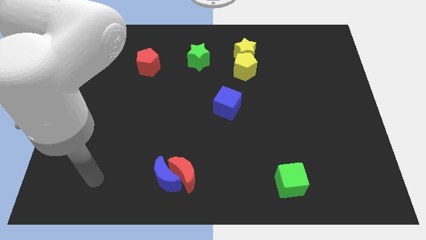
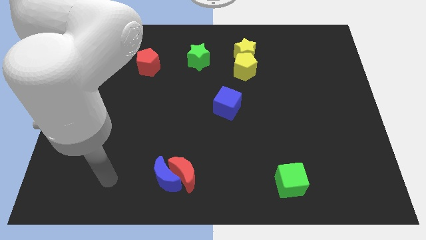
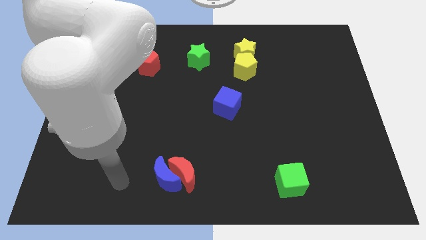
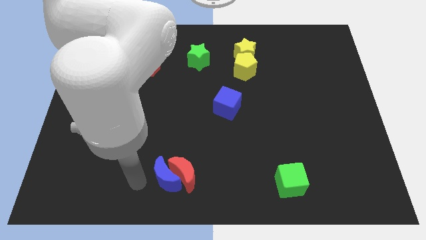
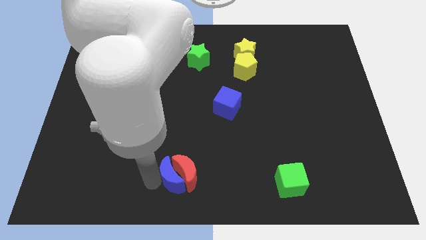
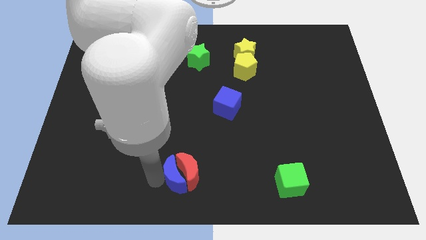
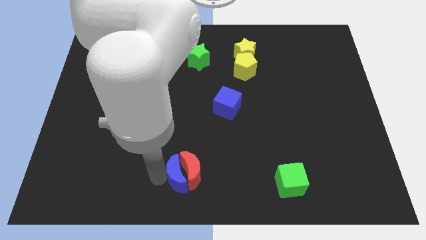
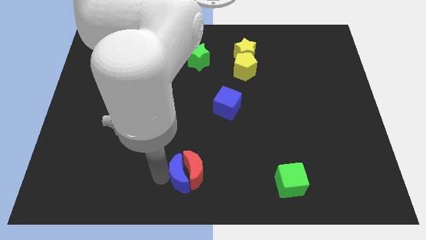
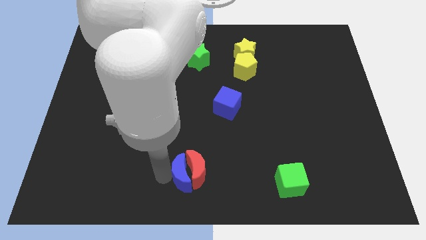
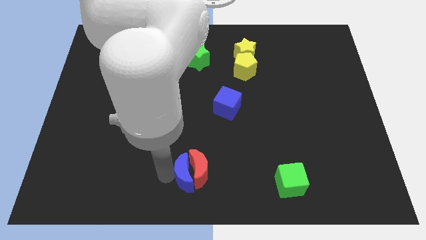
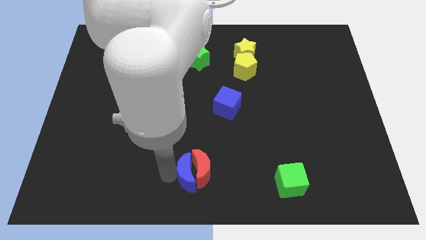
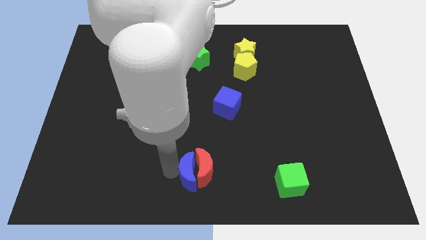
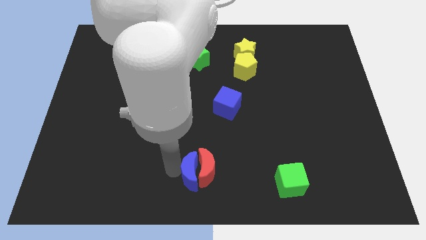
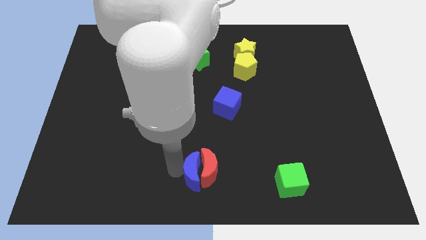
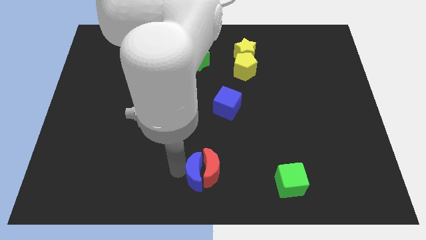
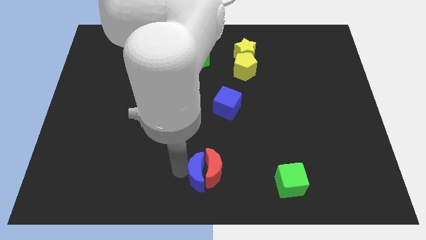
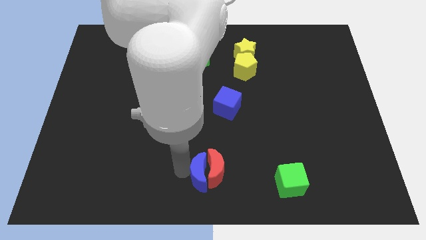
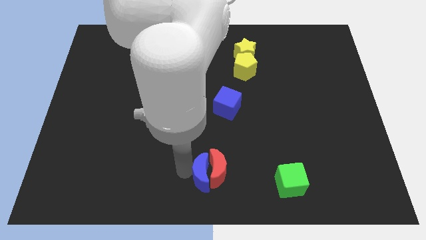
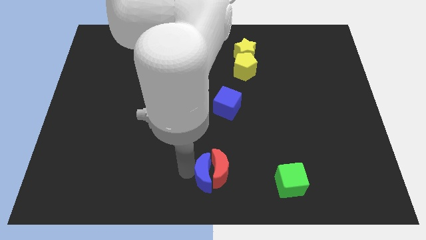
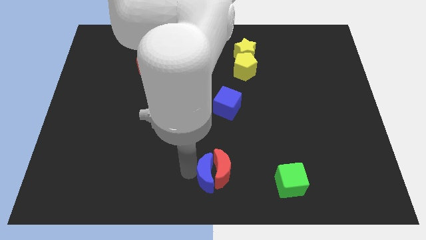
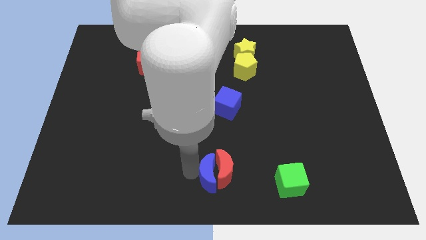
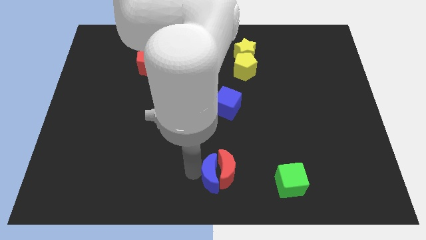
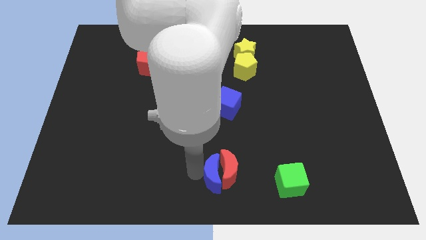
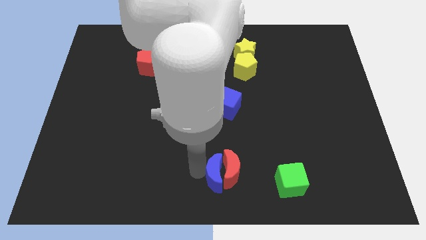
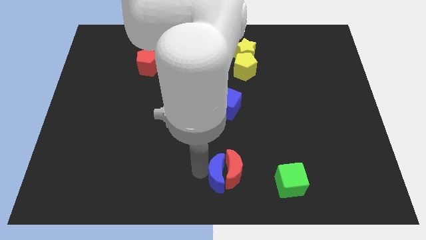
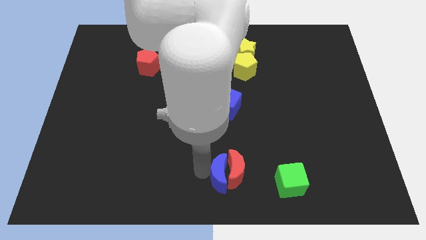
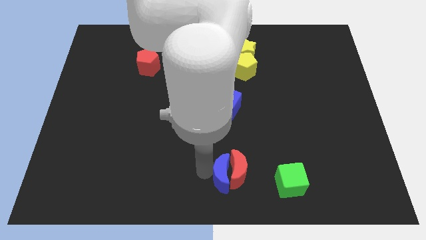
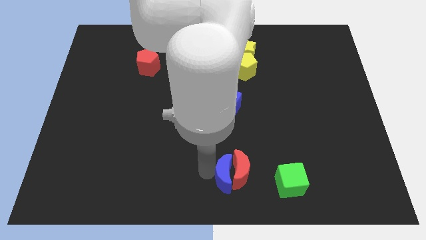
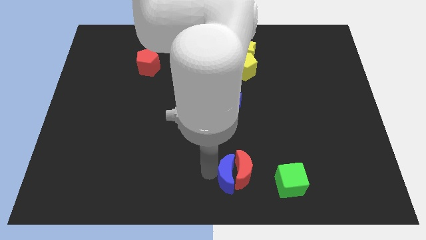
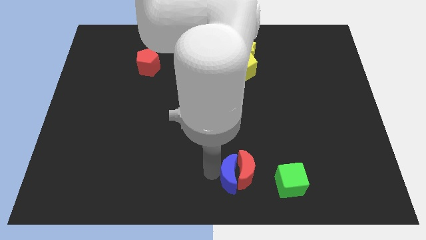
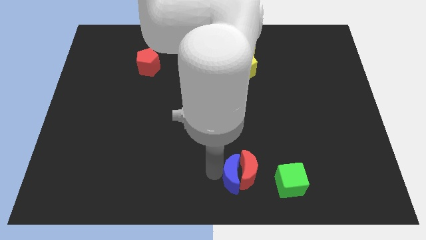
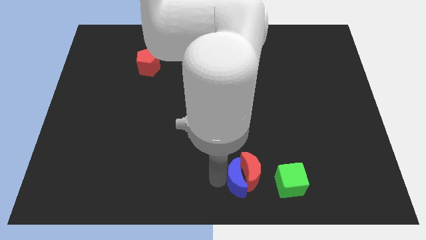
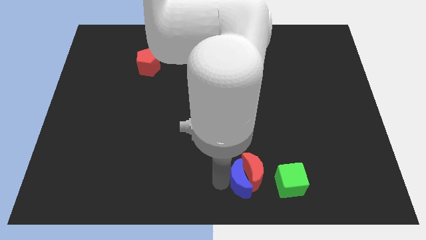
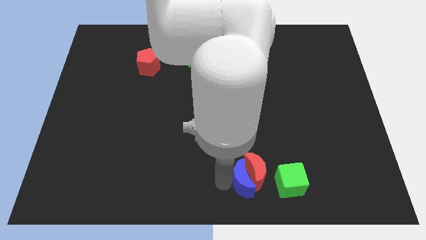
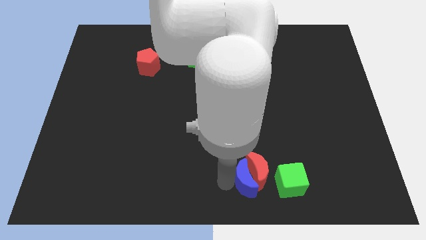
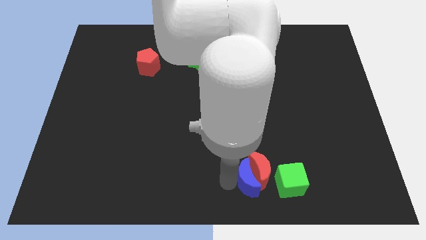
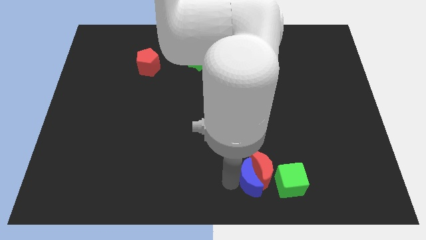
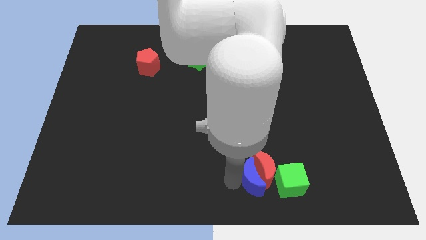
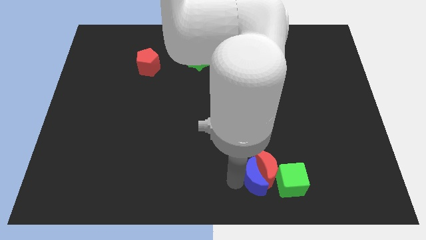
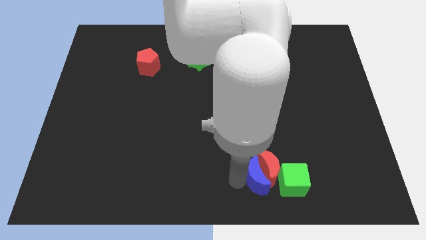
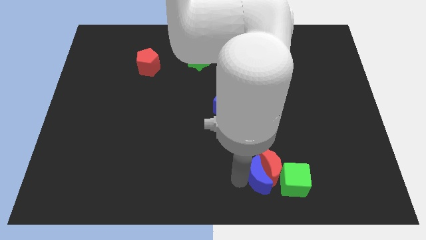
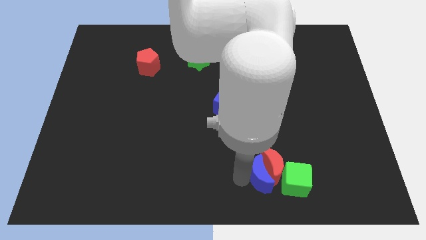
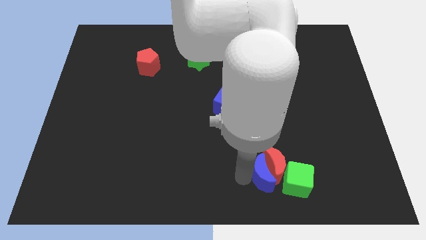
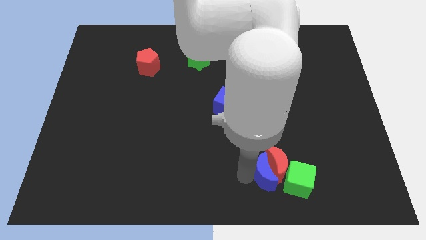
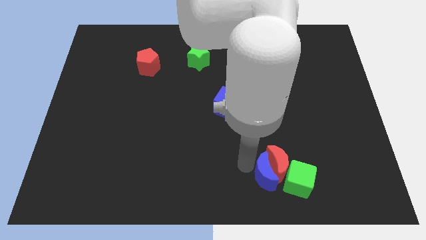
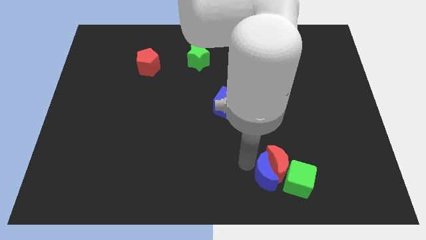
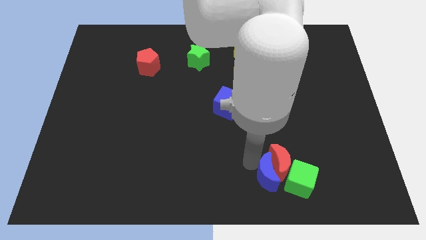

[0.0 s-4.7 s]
push the red moon to the right

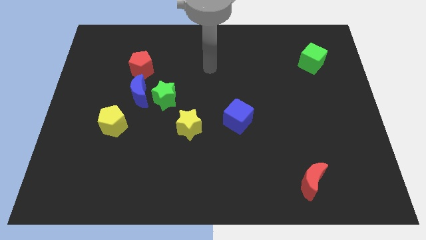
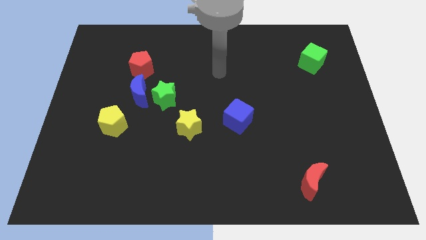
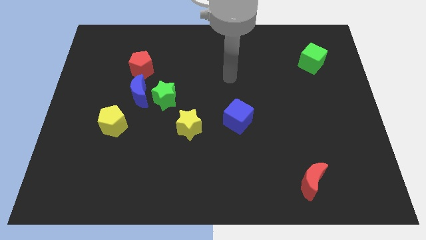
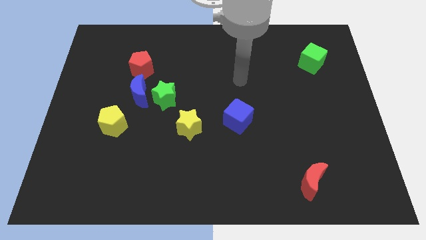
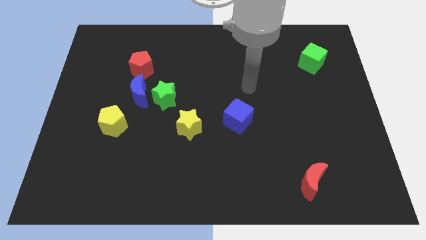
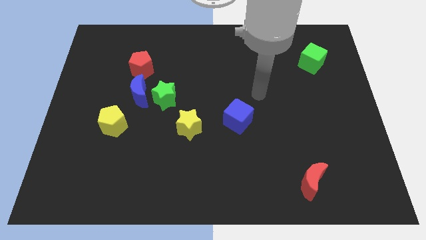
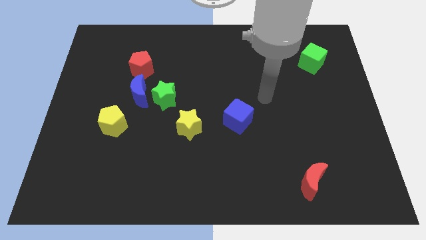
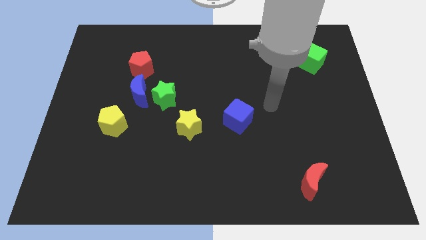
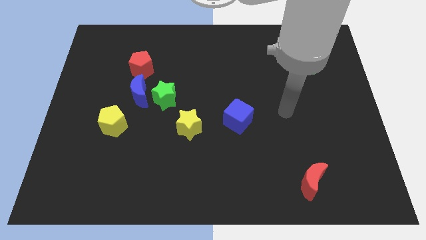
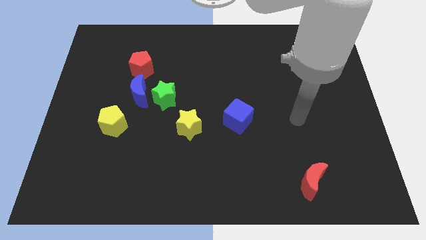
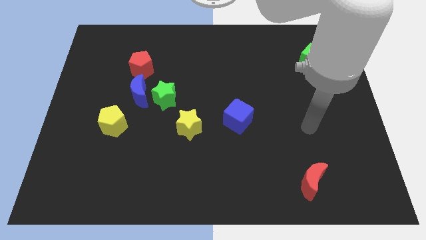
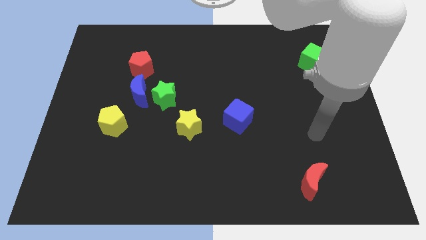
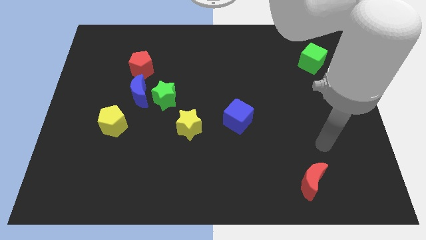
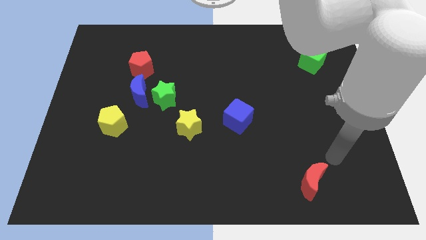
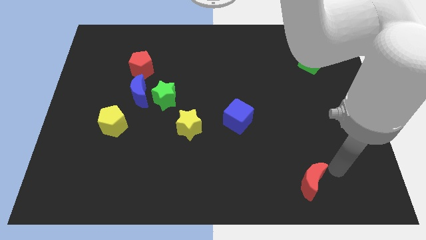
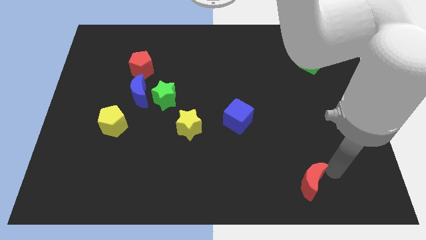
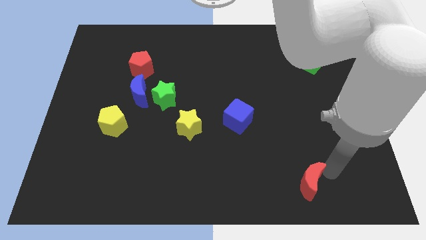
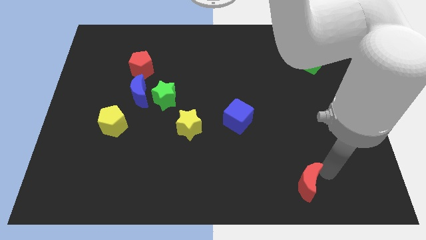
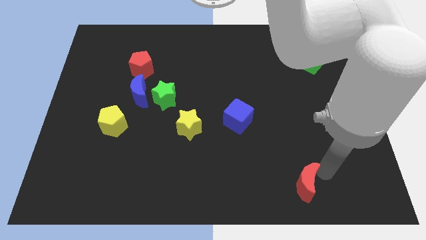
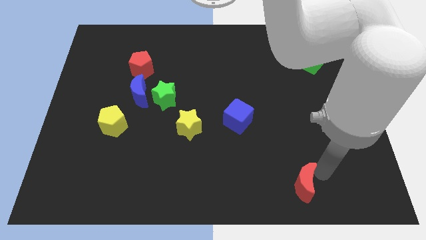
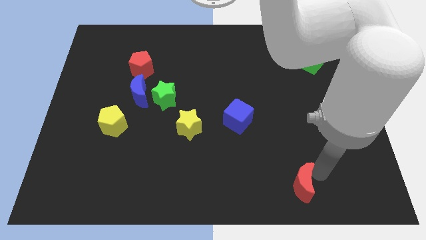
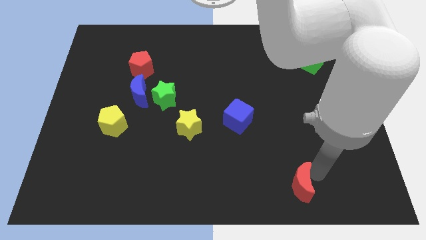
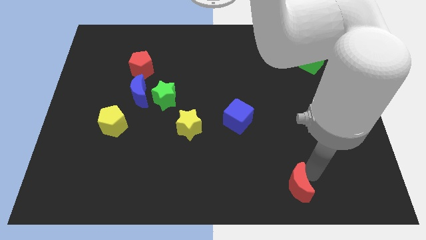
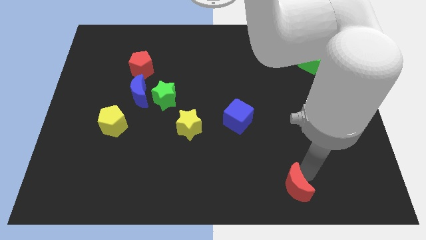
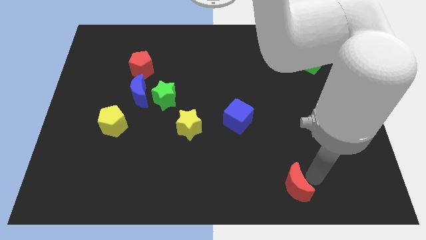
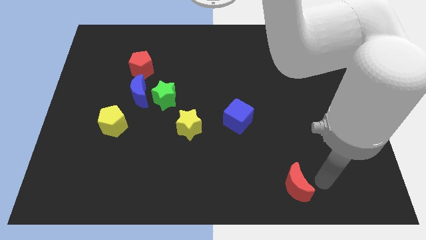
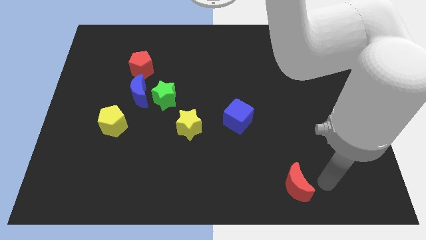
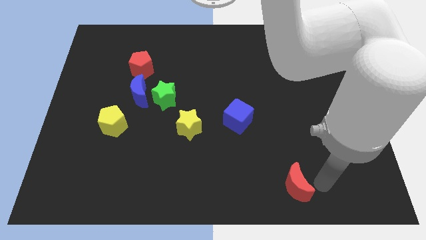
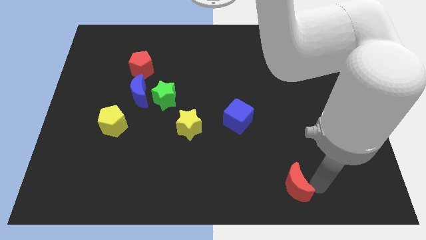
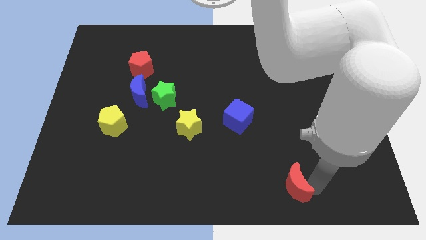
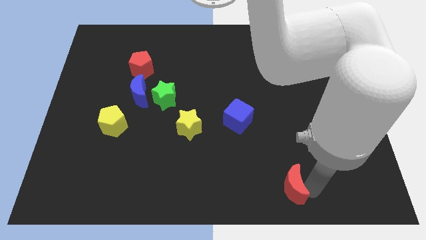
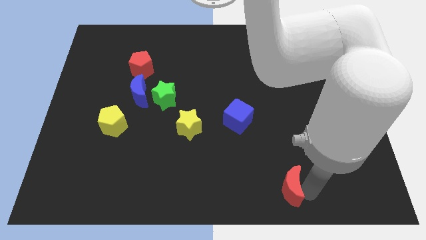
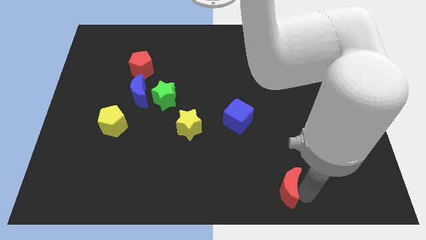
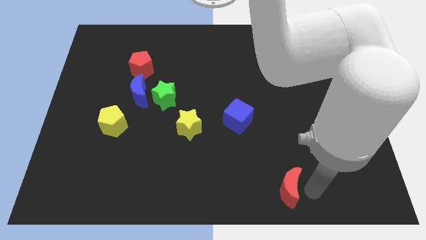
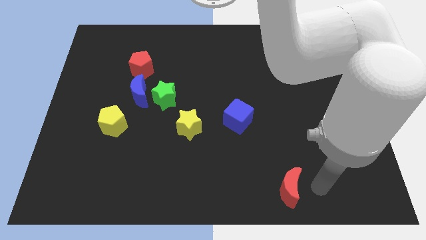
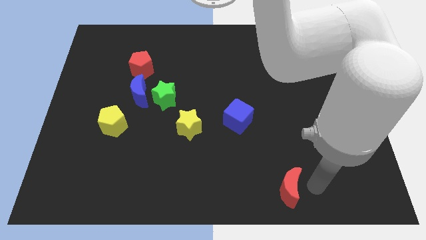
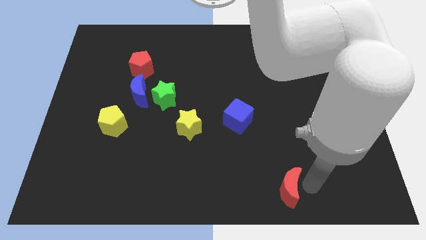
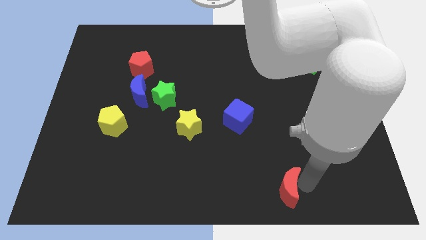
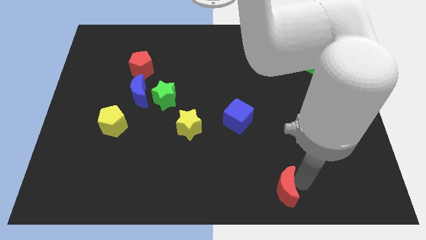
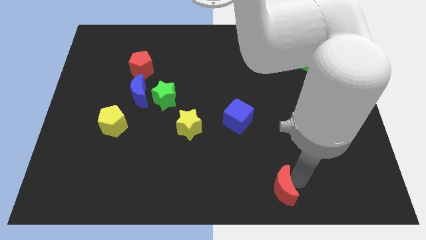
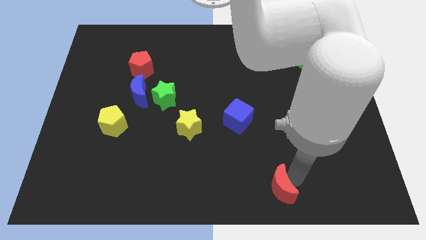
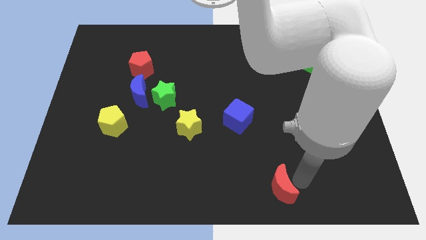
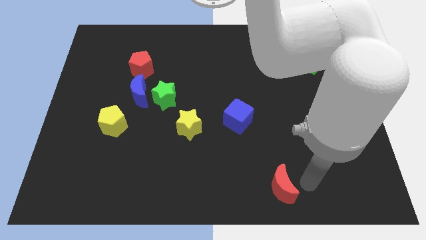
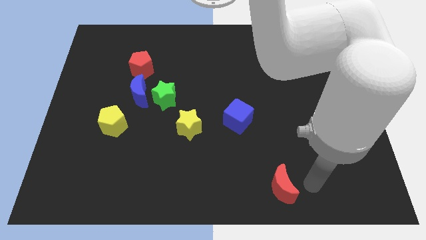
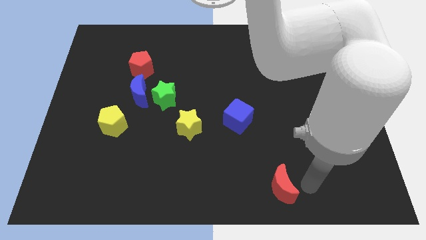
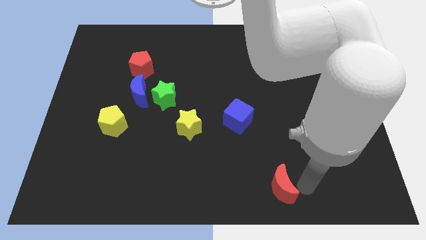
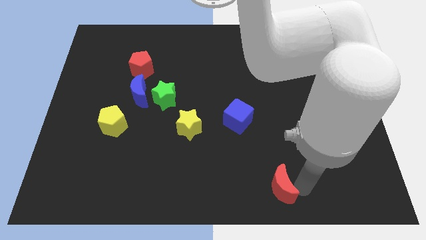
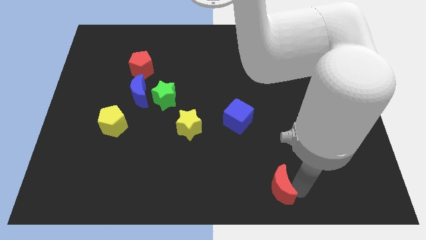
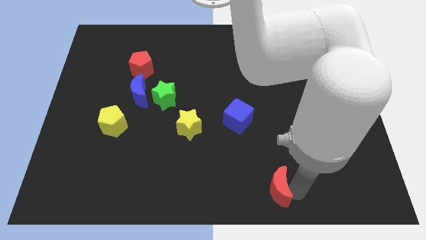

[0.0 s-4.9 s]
push the red moon left a little bit
